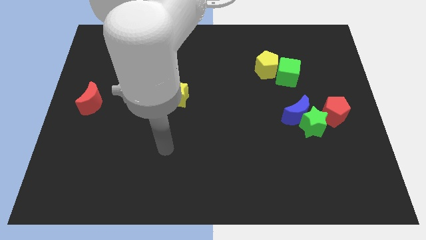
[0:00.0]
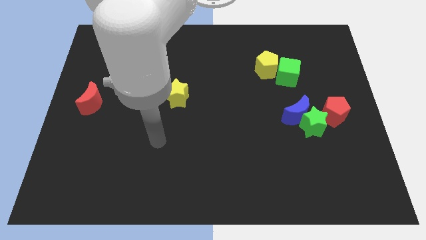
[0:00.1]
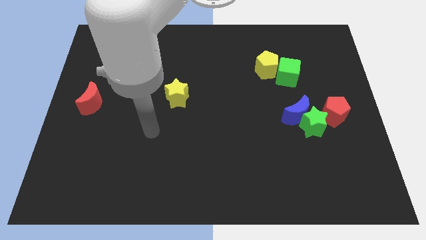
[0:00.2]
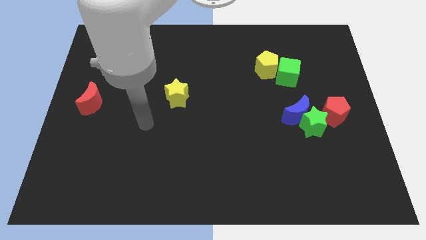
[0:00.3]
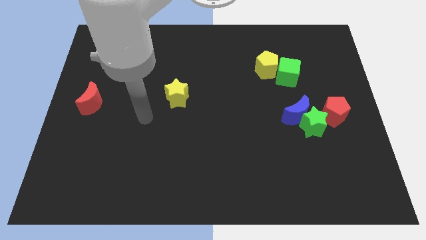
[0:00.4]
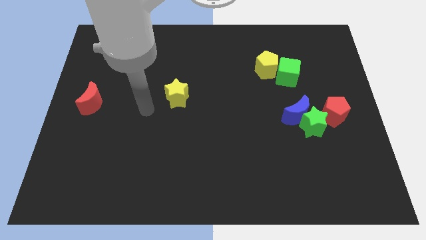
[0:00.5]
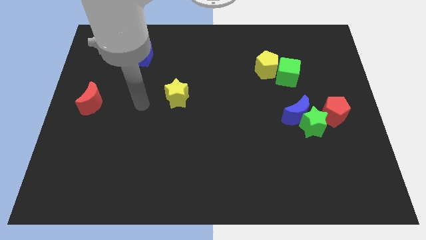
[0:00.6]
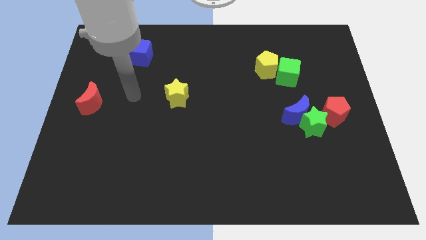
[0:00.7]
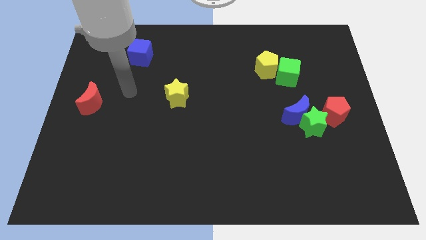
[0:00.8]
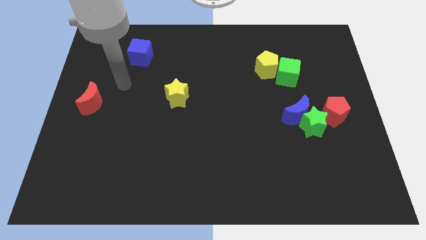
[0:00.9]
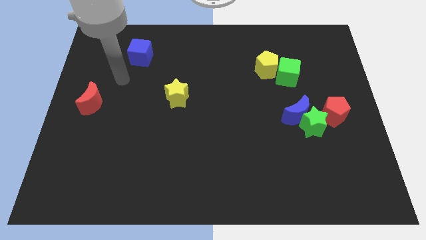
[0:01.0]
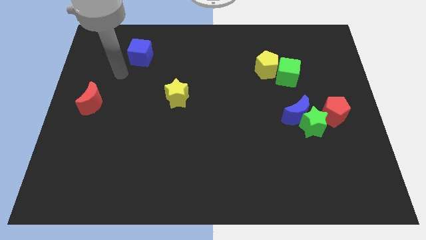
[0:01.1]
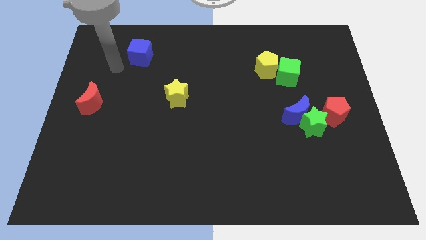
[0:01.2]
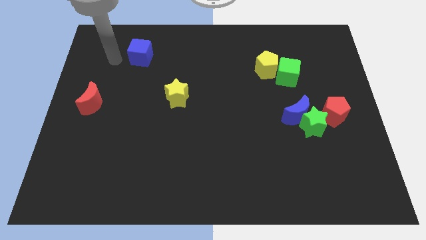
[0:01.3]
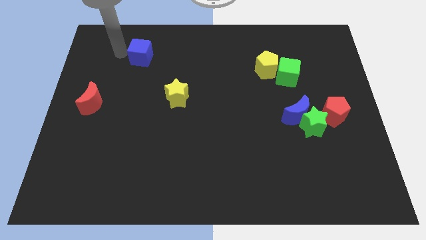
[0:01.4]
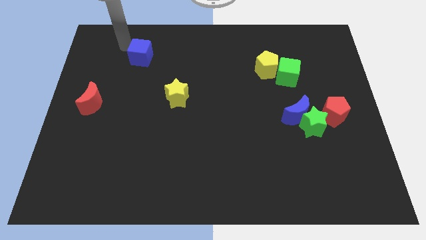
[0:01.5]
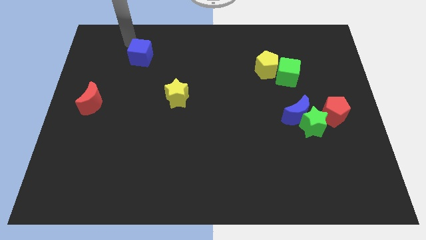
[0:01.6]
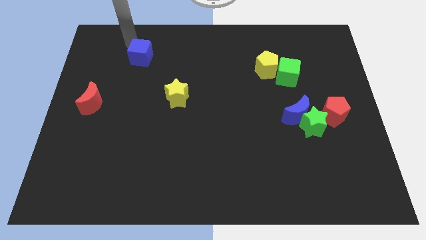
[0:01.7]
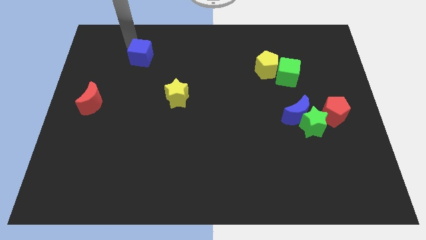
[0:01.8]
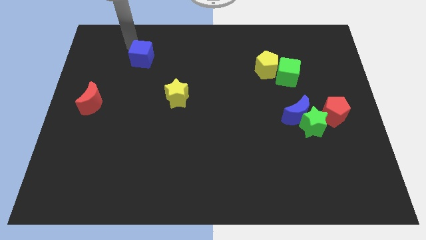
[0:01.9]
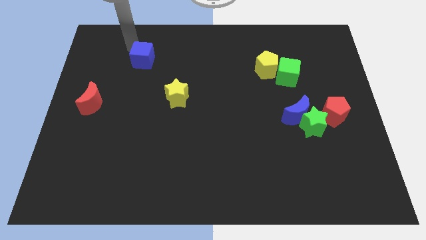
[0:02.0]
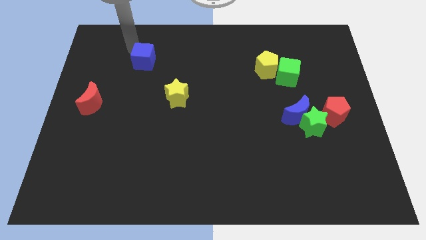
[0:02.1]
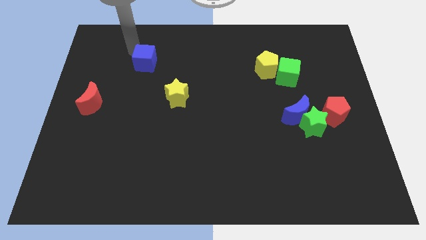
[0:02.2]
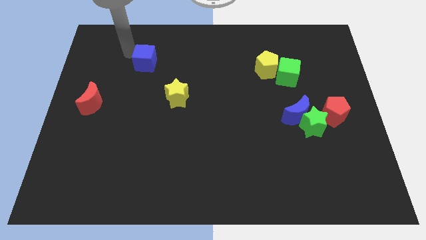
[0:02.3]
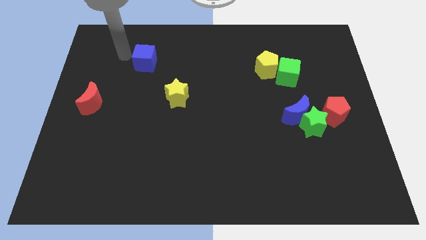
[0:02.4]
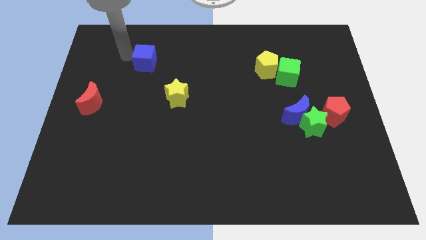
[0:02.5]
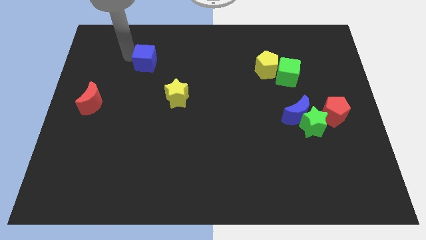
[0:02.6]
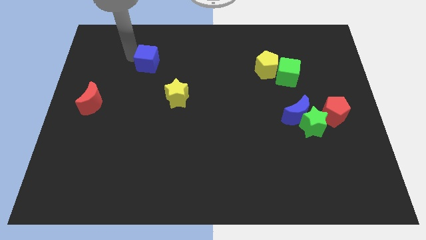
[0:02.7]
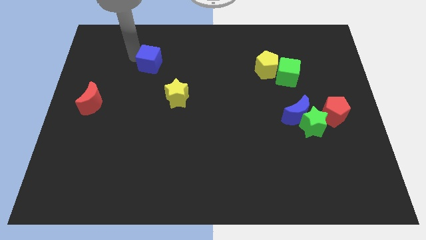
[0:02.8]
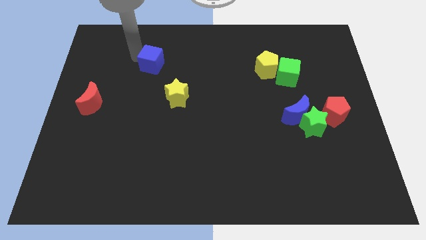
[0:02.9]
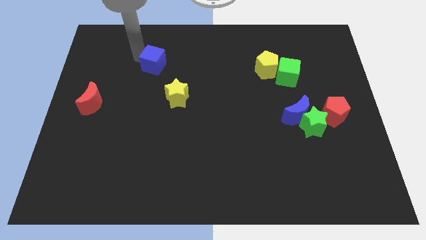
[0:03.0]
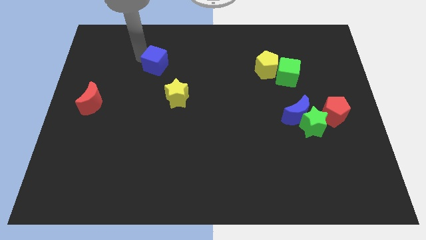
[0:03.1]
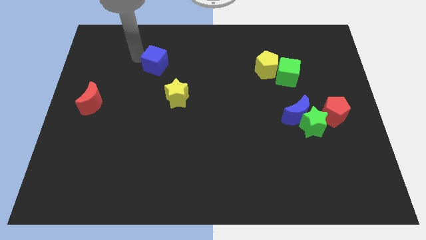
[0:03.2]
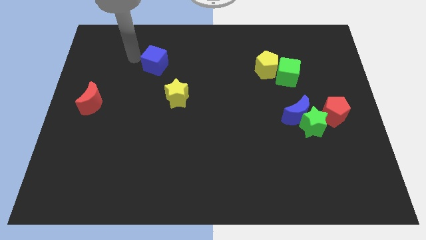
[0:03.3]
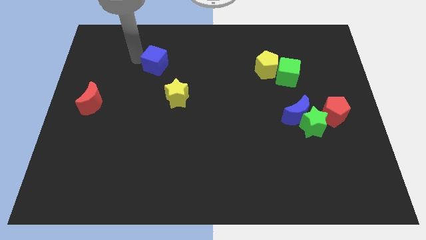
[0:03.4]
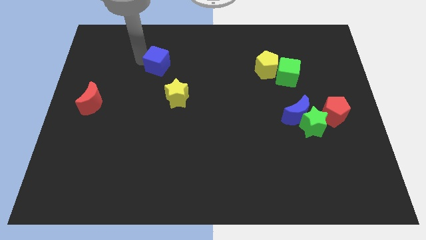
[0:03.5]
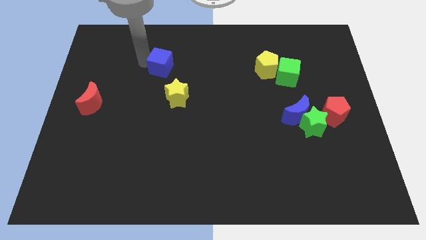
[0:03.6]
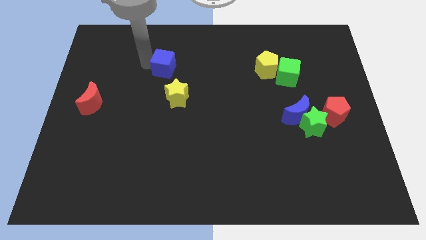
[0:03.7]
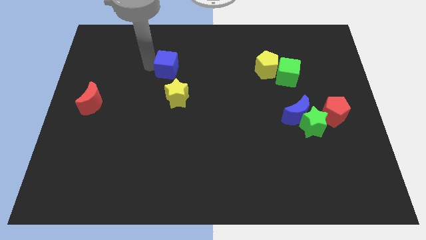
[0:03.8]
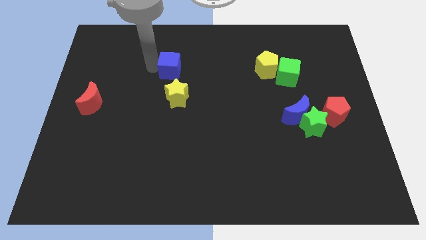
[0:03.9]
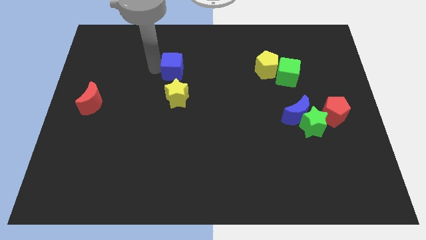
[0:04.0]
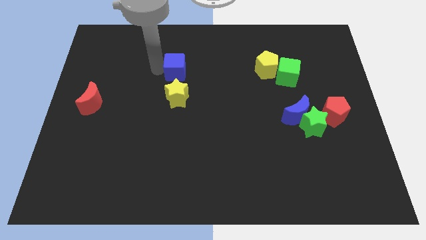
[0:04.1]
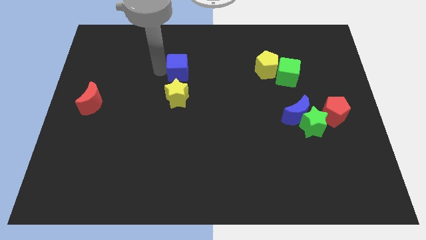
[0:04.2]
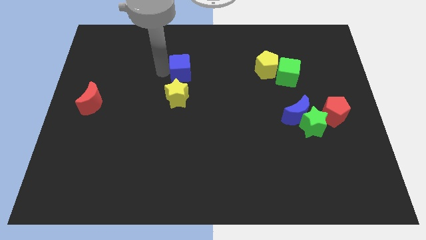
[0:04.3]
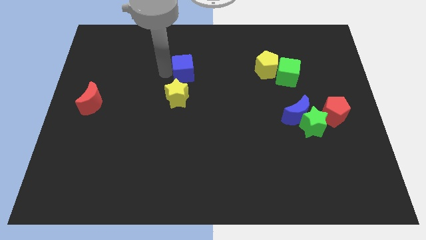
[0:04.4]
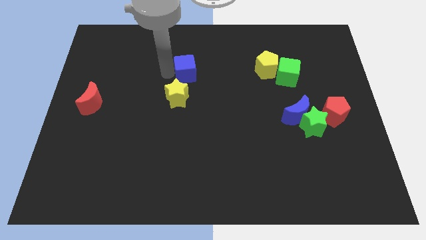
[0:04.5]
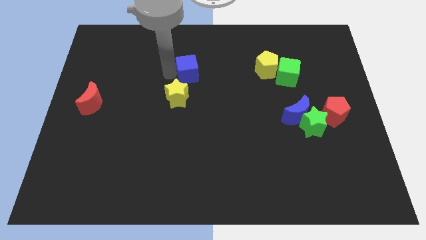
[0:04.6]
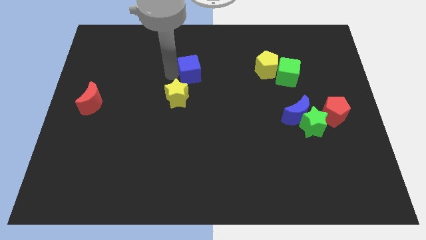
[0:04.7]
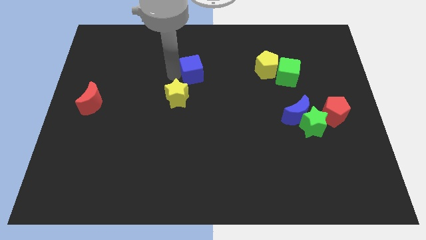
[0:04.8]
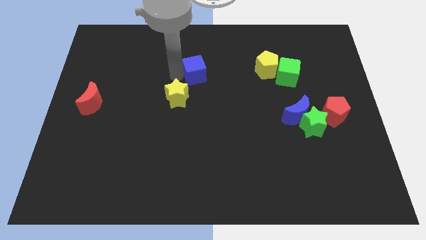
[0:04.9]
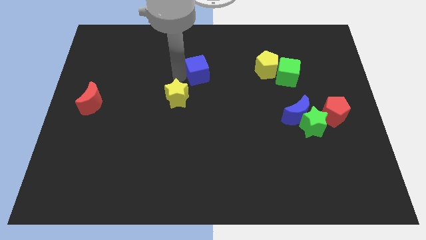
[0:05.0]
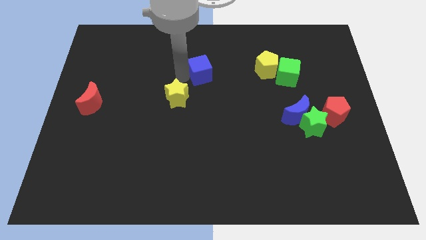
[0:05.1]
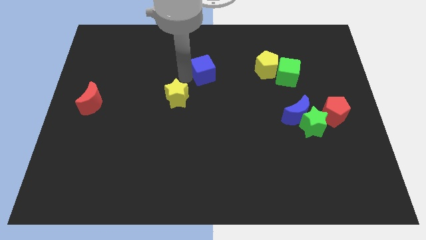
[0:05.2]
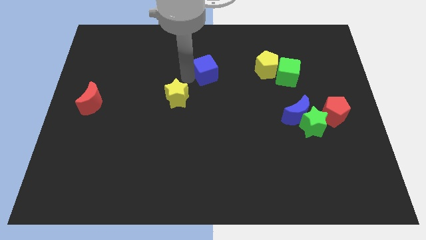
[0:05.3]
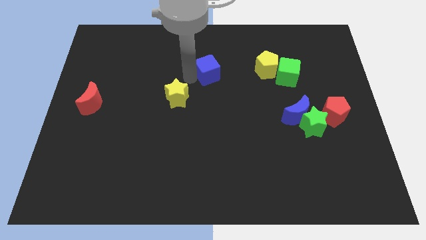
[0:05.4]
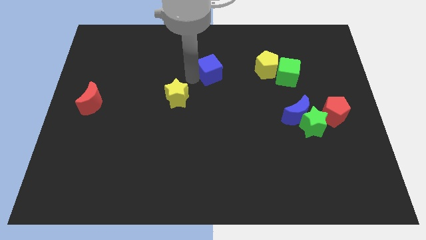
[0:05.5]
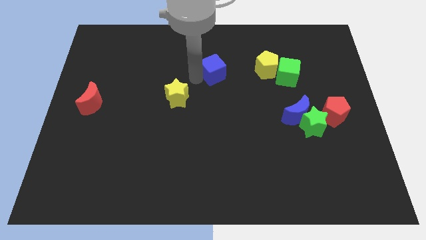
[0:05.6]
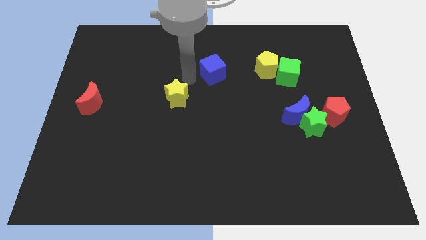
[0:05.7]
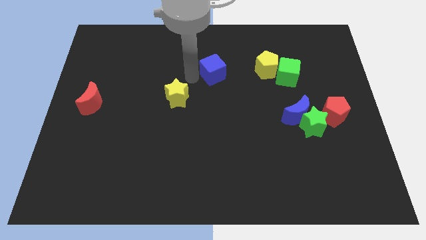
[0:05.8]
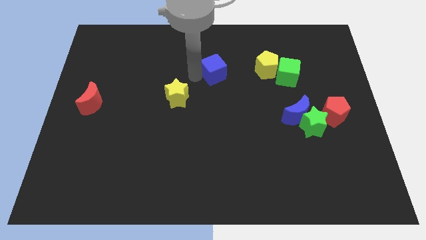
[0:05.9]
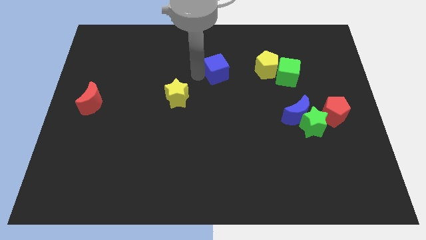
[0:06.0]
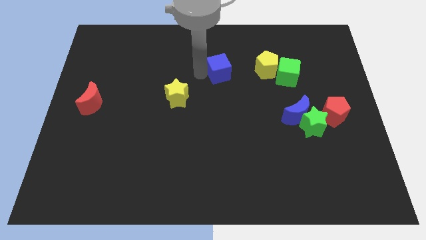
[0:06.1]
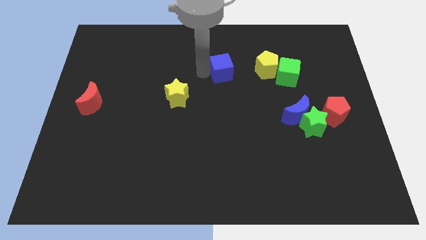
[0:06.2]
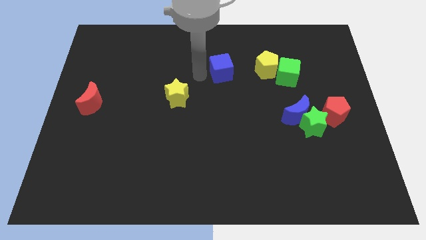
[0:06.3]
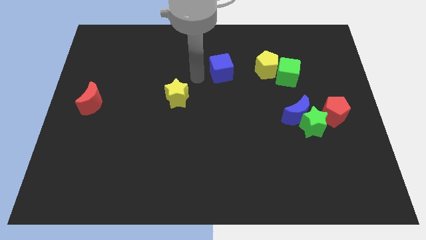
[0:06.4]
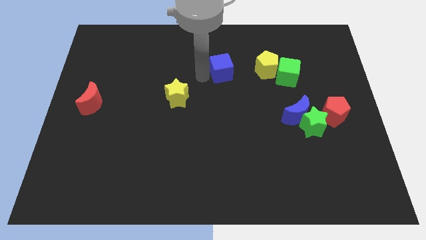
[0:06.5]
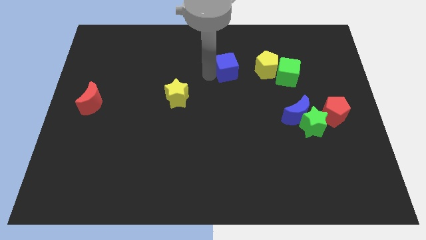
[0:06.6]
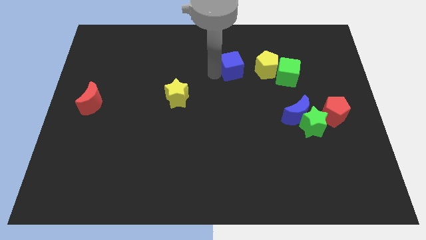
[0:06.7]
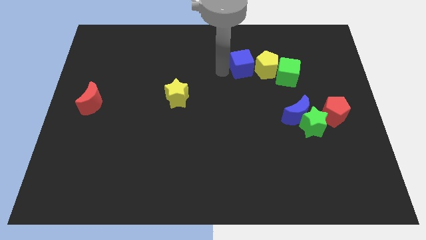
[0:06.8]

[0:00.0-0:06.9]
slide the blue cube close to the yellow pentagon
